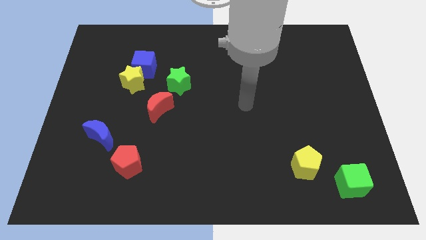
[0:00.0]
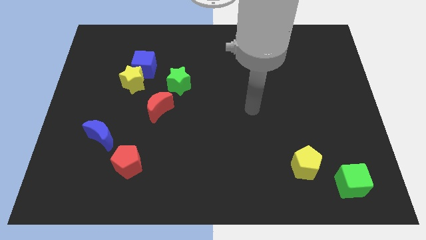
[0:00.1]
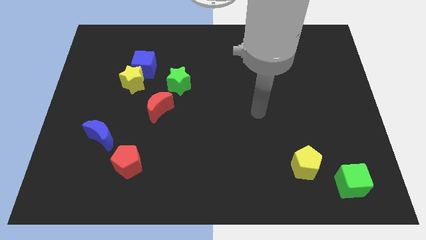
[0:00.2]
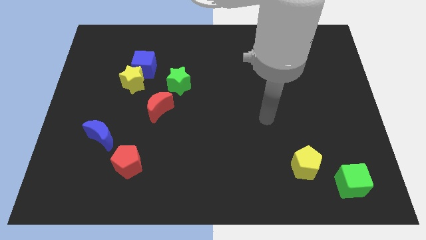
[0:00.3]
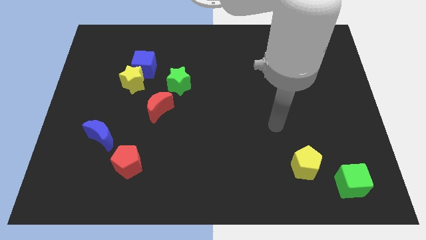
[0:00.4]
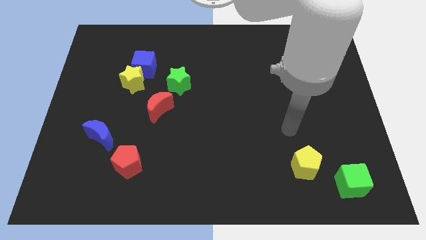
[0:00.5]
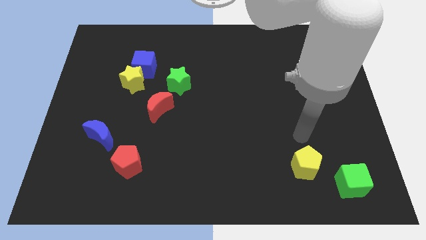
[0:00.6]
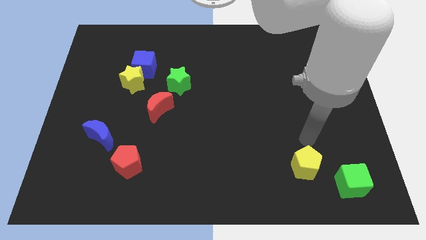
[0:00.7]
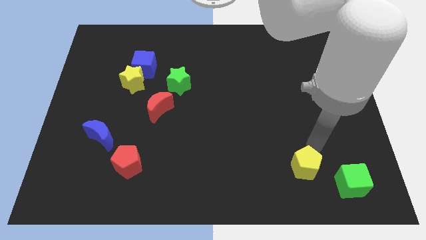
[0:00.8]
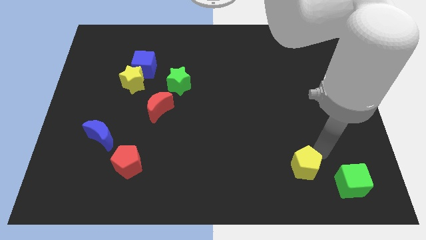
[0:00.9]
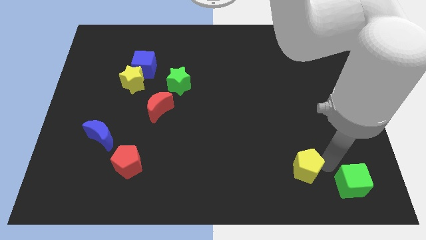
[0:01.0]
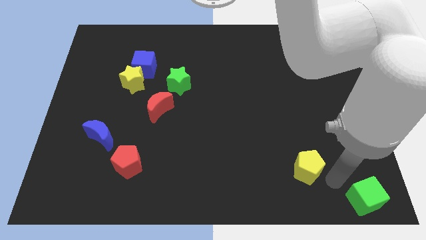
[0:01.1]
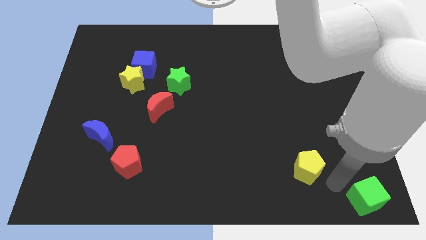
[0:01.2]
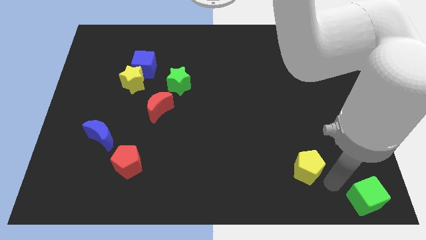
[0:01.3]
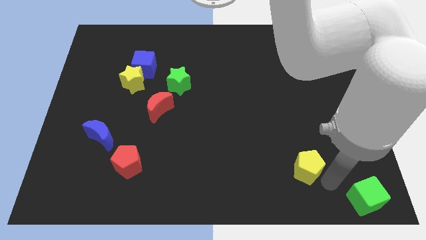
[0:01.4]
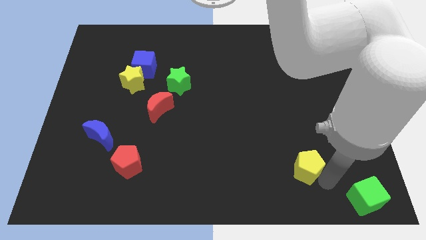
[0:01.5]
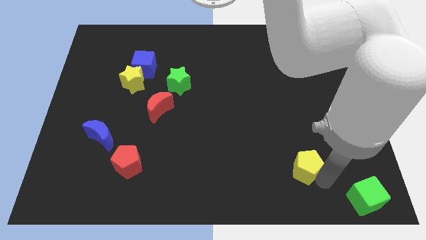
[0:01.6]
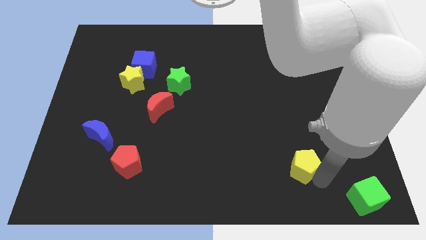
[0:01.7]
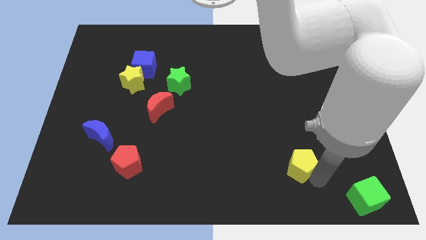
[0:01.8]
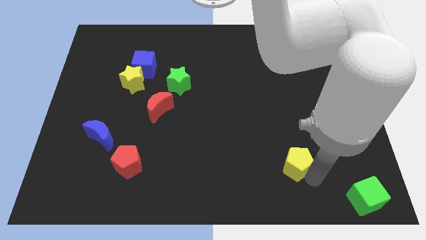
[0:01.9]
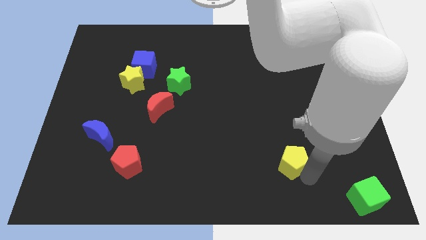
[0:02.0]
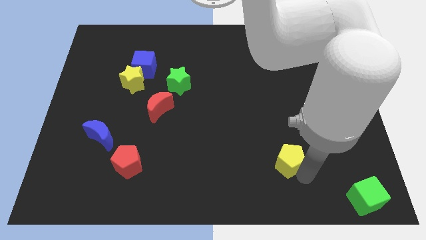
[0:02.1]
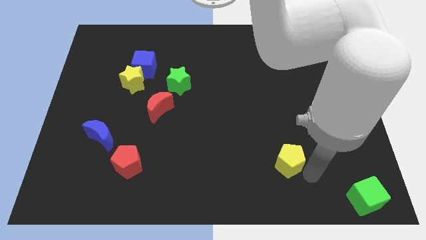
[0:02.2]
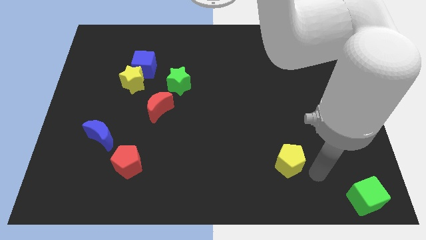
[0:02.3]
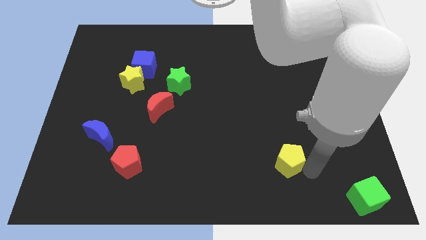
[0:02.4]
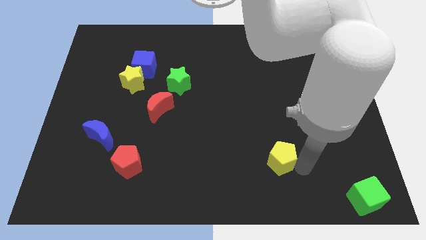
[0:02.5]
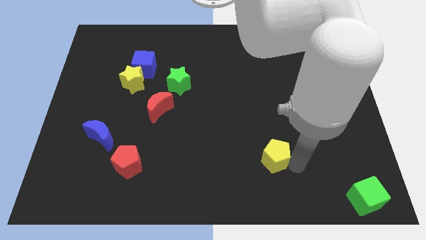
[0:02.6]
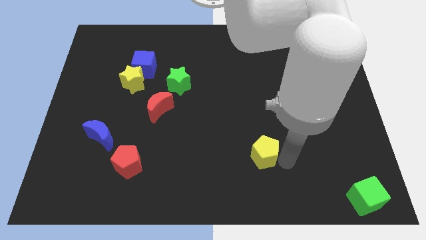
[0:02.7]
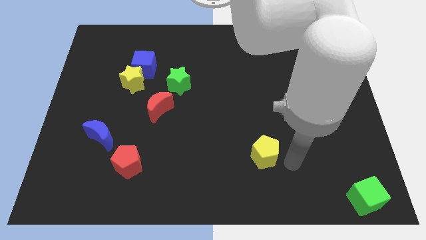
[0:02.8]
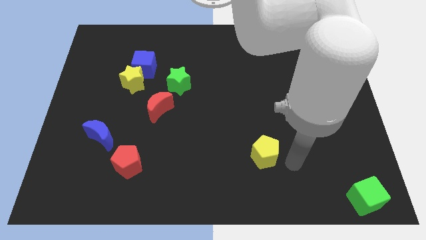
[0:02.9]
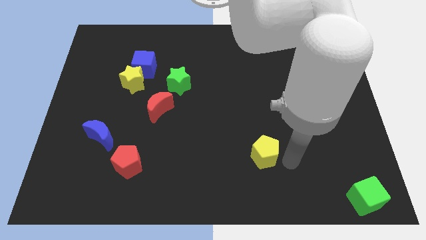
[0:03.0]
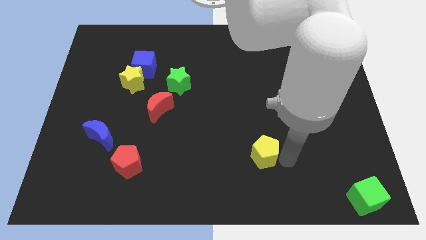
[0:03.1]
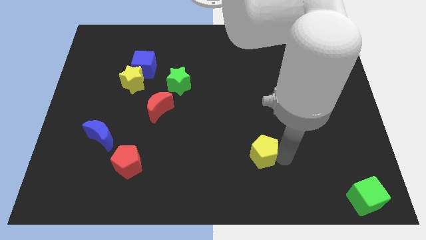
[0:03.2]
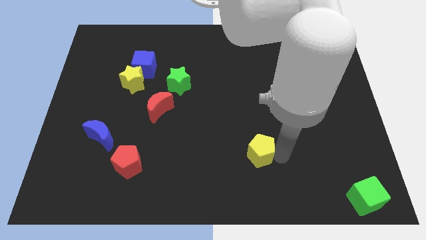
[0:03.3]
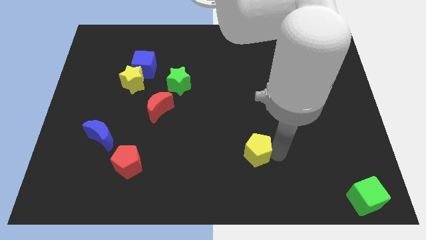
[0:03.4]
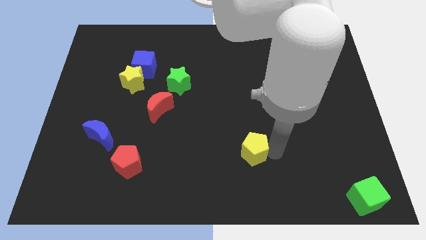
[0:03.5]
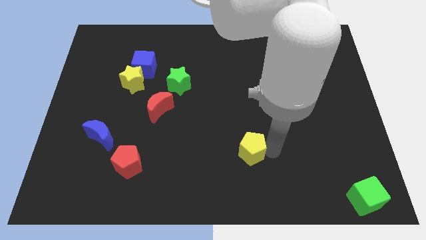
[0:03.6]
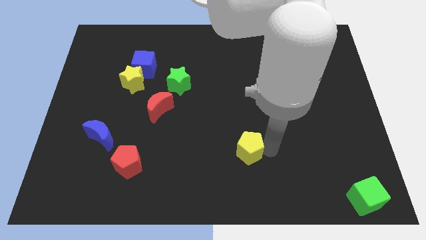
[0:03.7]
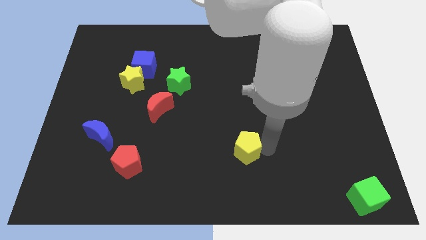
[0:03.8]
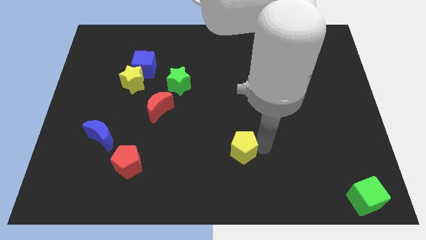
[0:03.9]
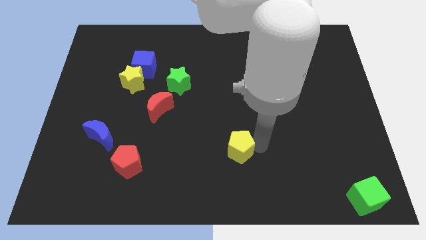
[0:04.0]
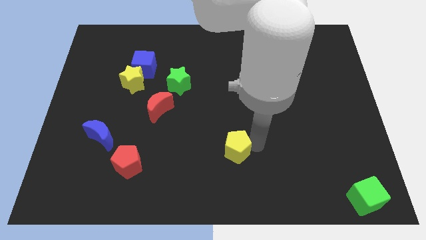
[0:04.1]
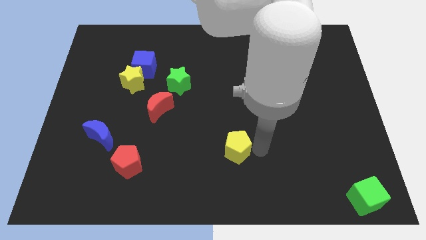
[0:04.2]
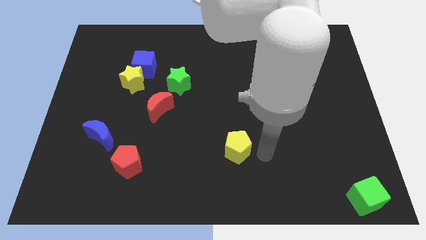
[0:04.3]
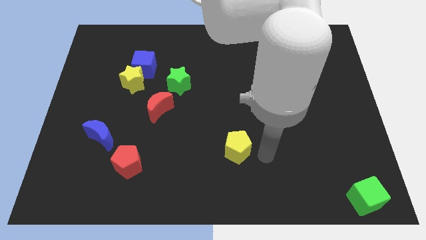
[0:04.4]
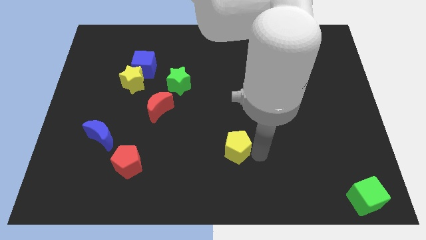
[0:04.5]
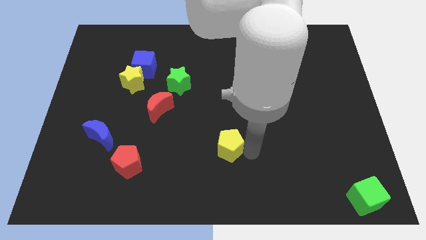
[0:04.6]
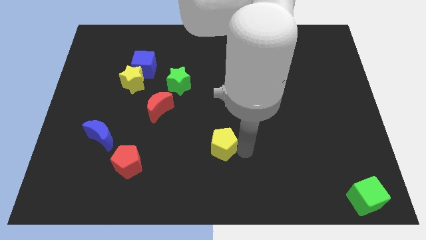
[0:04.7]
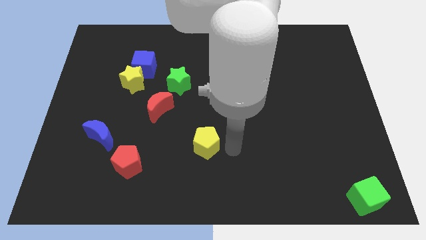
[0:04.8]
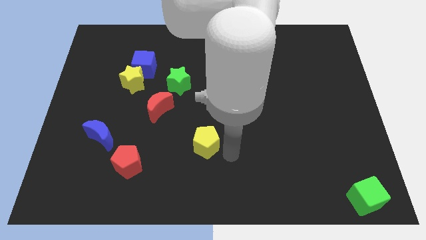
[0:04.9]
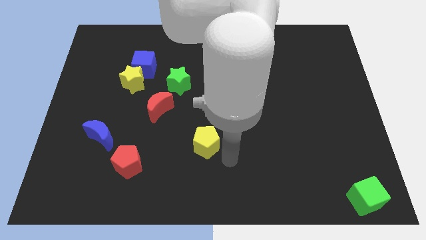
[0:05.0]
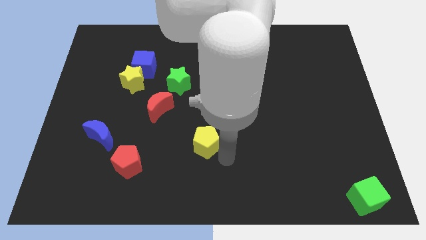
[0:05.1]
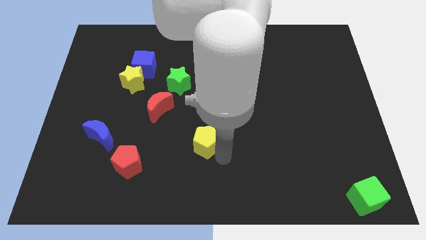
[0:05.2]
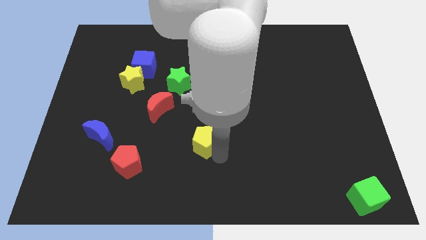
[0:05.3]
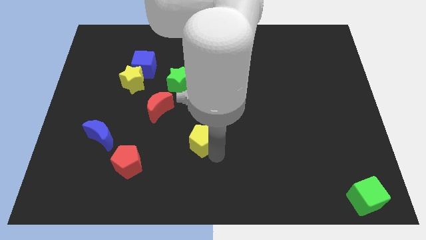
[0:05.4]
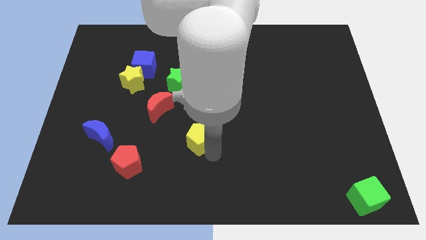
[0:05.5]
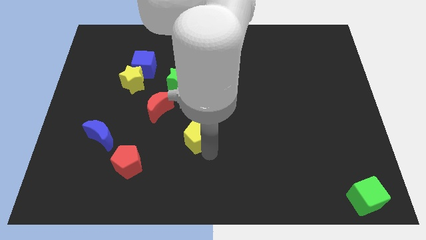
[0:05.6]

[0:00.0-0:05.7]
move the yellow pentagon diagonally down and to the right of the red moon

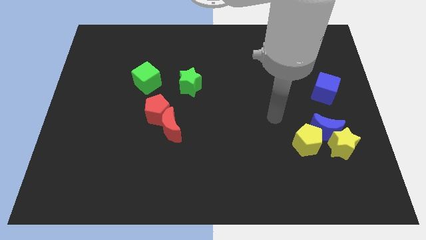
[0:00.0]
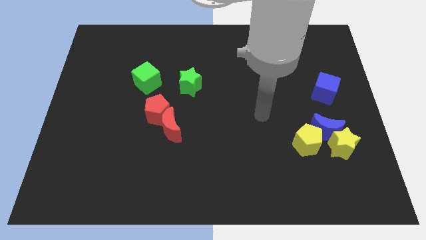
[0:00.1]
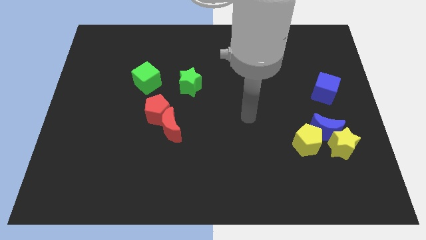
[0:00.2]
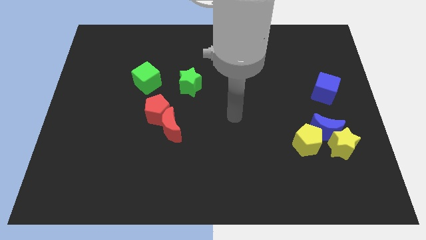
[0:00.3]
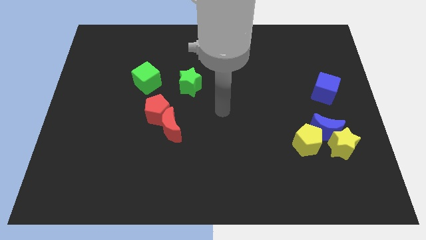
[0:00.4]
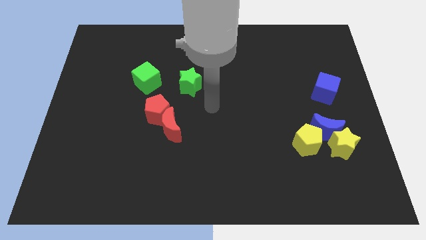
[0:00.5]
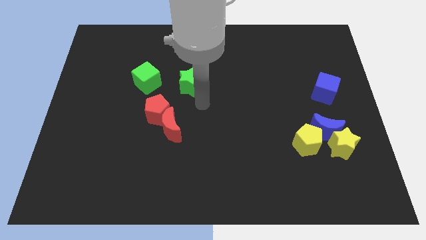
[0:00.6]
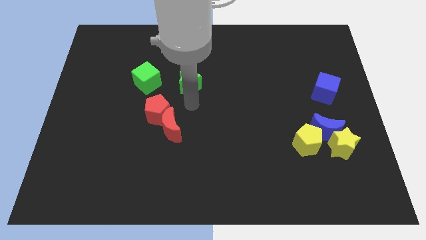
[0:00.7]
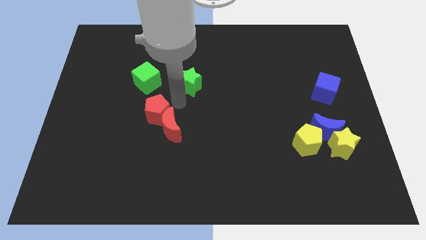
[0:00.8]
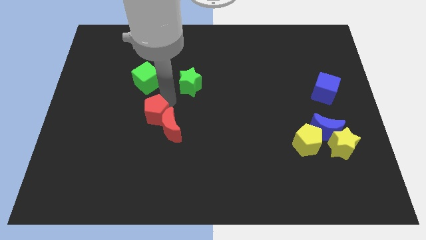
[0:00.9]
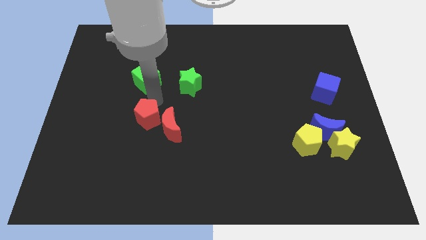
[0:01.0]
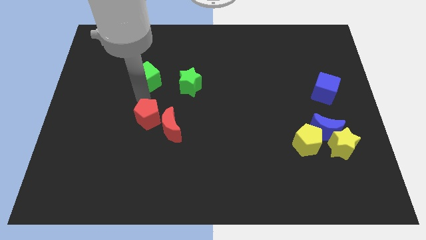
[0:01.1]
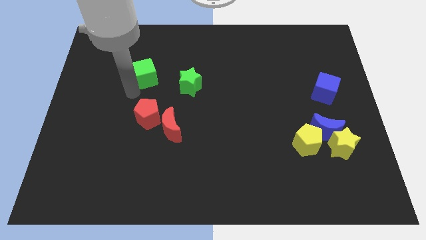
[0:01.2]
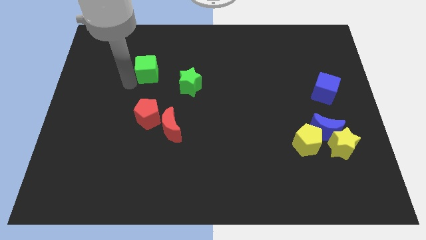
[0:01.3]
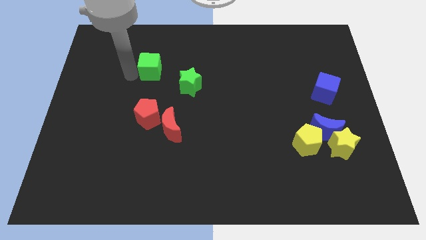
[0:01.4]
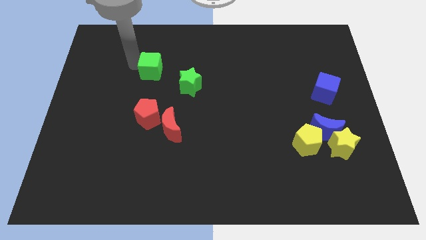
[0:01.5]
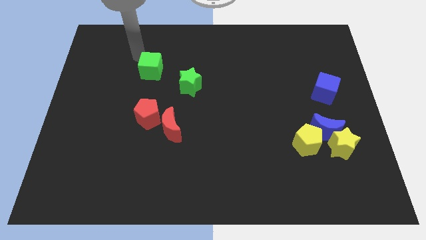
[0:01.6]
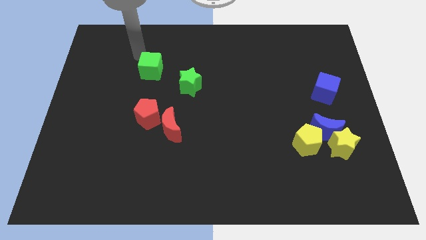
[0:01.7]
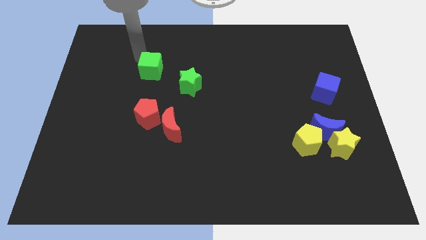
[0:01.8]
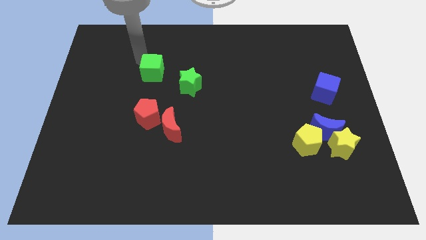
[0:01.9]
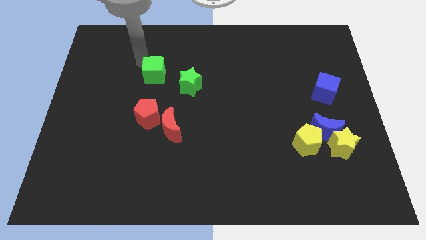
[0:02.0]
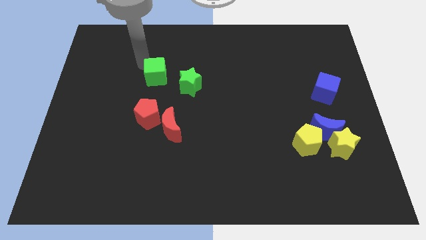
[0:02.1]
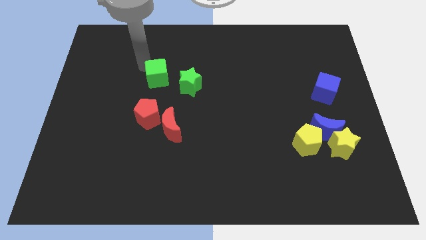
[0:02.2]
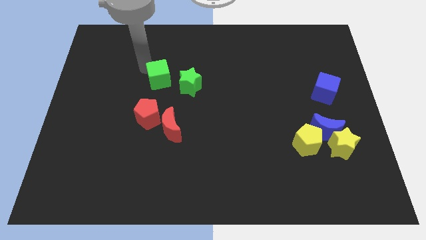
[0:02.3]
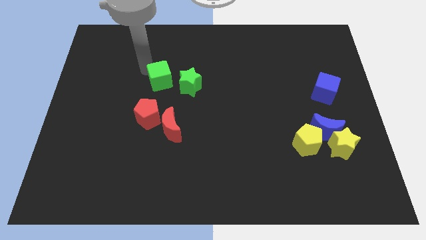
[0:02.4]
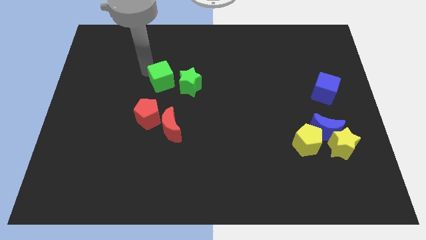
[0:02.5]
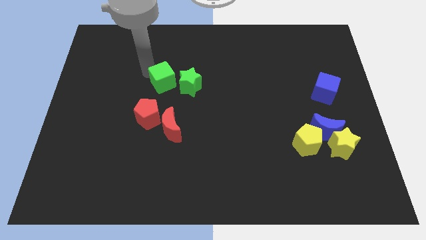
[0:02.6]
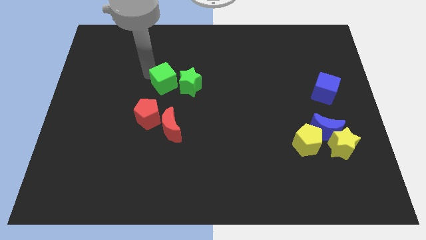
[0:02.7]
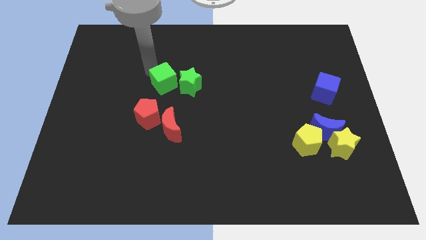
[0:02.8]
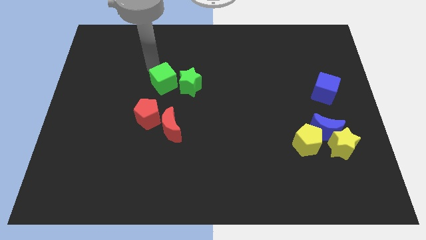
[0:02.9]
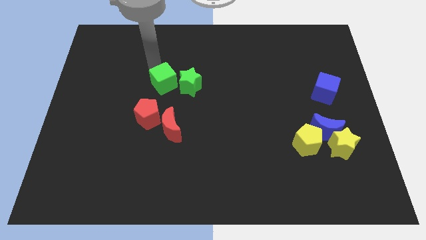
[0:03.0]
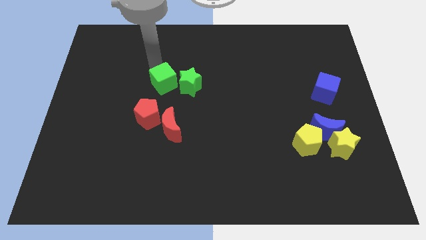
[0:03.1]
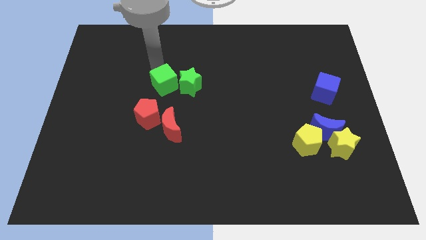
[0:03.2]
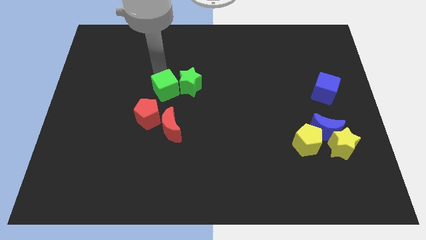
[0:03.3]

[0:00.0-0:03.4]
put the green cube to the top right of the red pentagon
